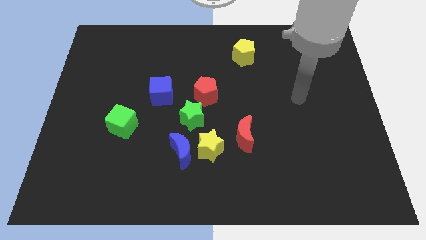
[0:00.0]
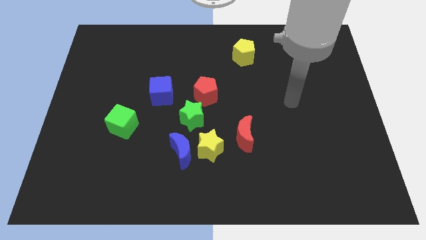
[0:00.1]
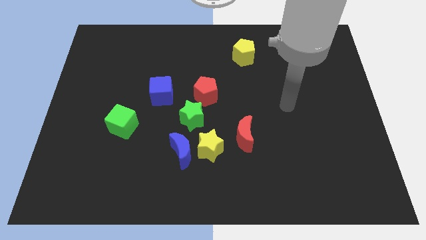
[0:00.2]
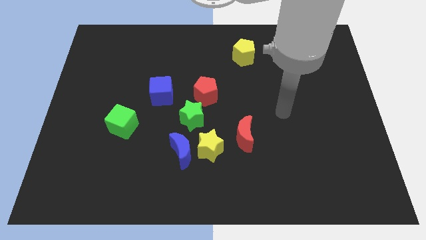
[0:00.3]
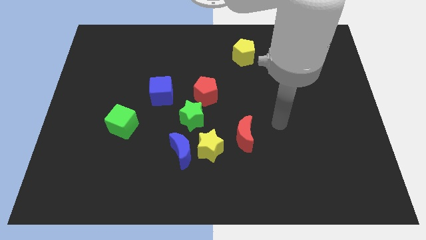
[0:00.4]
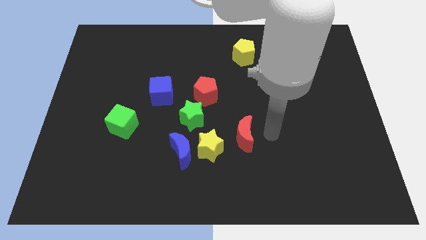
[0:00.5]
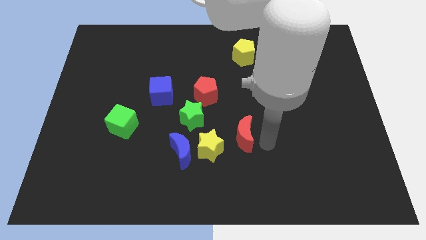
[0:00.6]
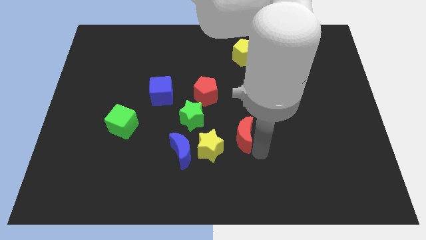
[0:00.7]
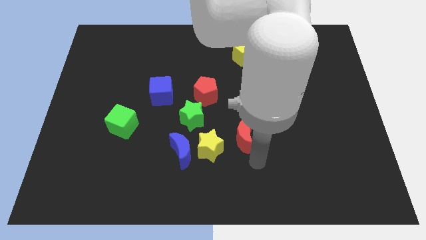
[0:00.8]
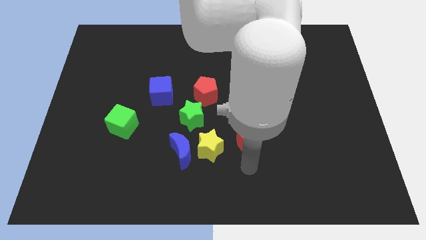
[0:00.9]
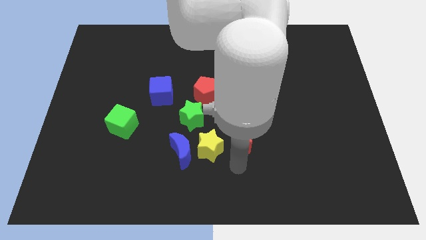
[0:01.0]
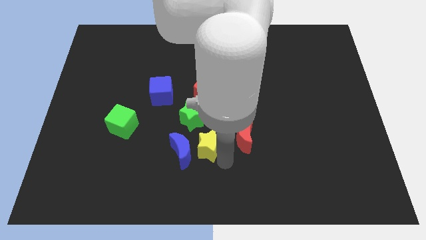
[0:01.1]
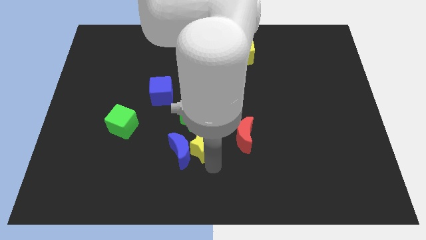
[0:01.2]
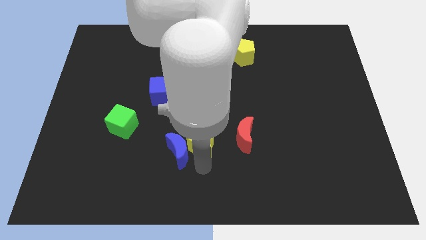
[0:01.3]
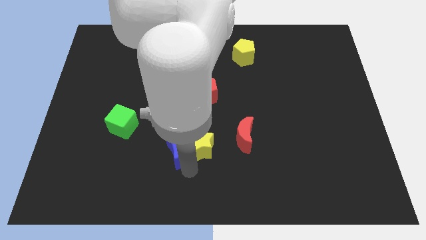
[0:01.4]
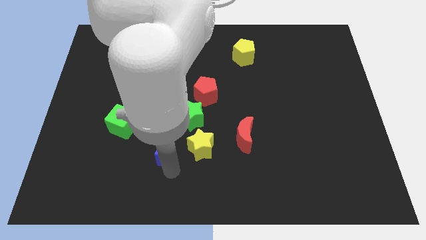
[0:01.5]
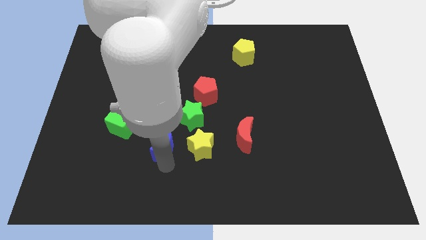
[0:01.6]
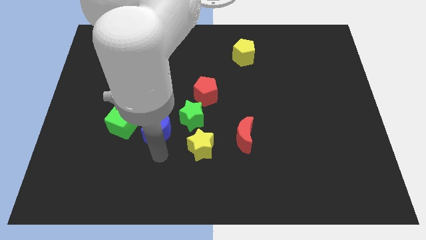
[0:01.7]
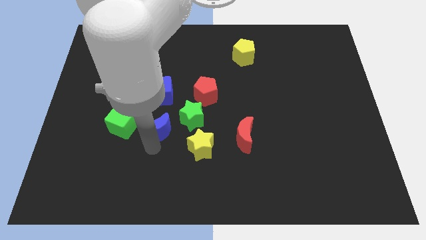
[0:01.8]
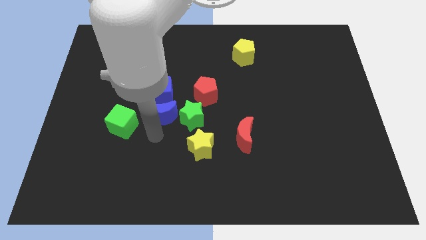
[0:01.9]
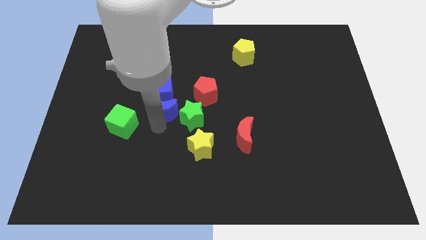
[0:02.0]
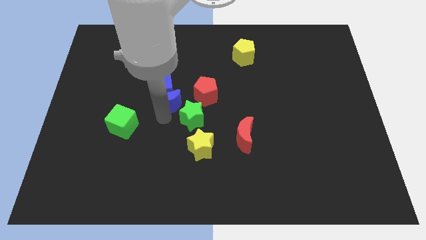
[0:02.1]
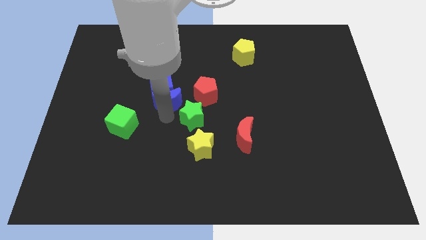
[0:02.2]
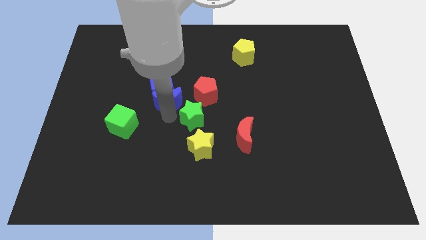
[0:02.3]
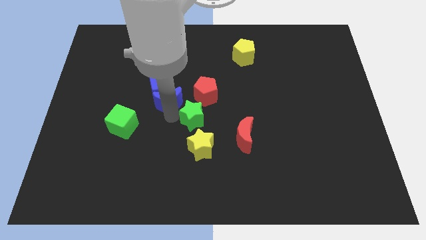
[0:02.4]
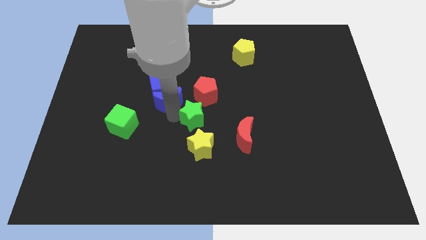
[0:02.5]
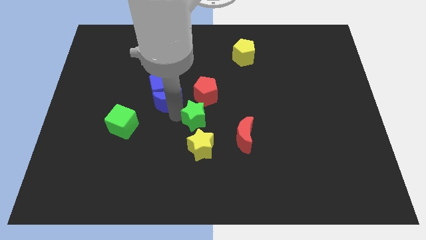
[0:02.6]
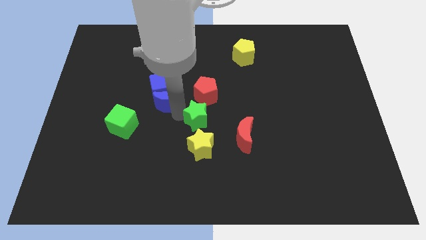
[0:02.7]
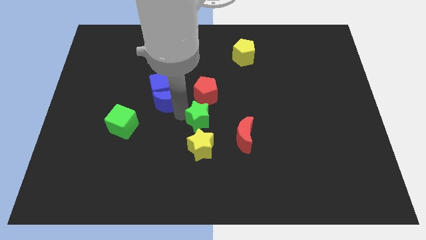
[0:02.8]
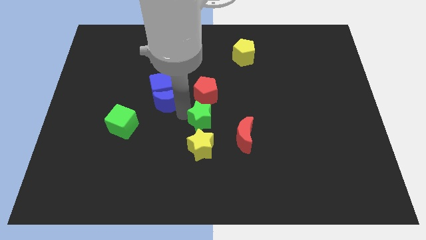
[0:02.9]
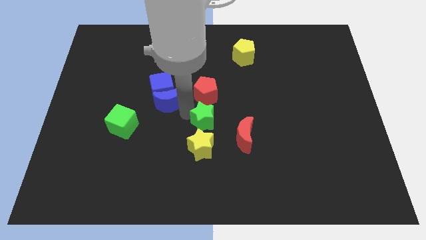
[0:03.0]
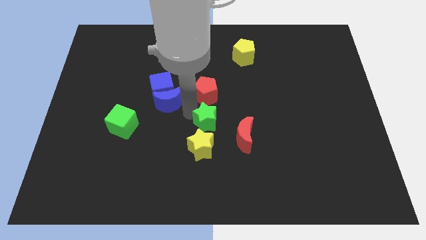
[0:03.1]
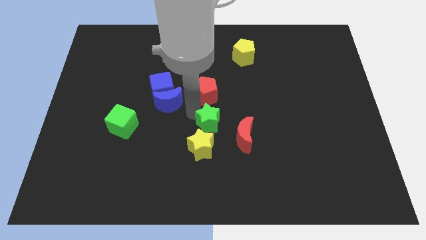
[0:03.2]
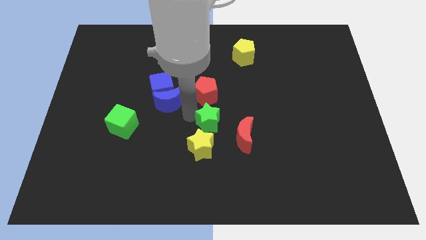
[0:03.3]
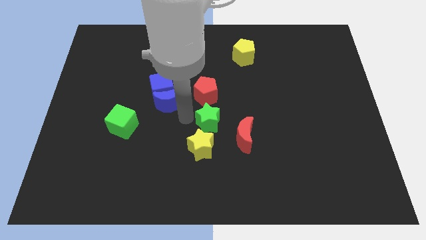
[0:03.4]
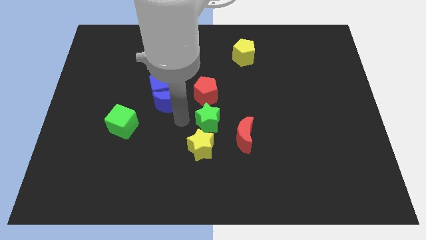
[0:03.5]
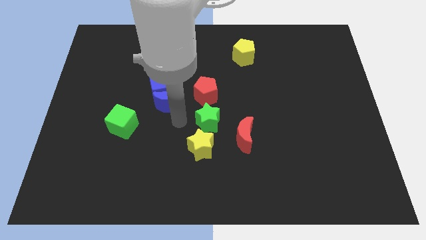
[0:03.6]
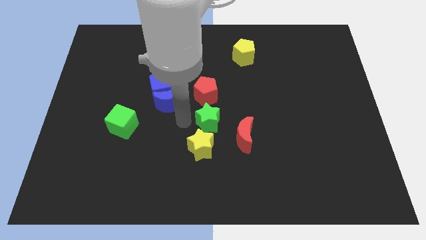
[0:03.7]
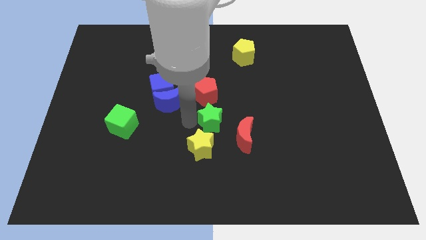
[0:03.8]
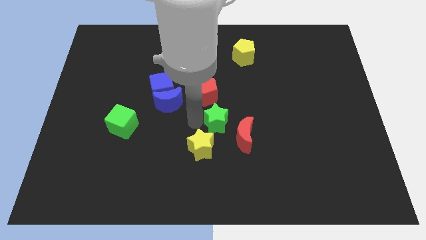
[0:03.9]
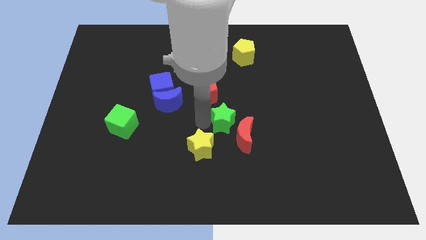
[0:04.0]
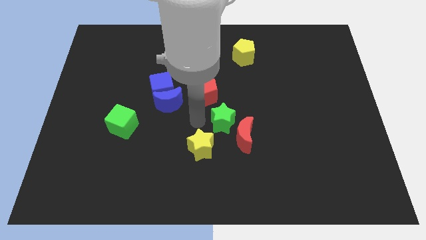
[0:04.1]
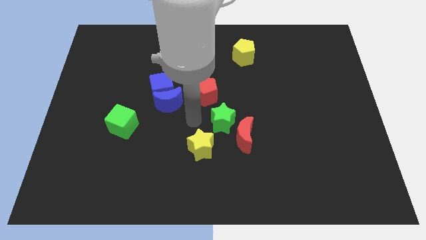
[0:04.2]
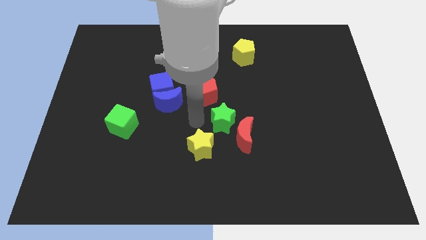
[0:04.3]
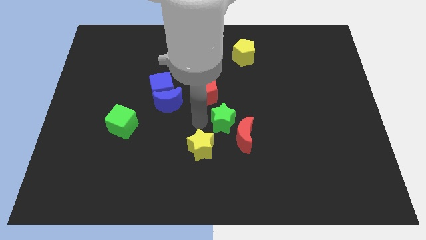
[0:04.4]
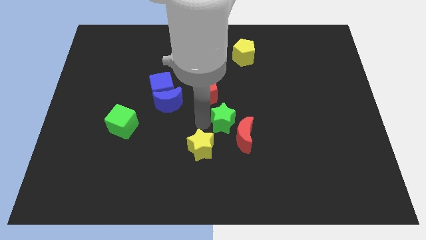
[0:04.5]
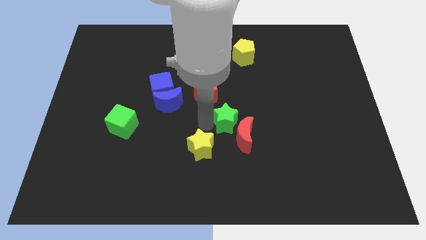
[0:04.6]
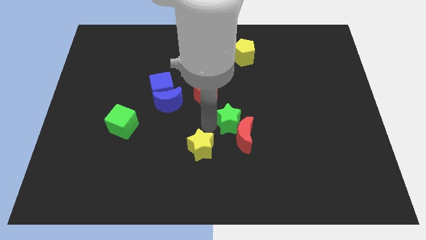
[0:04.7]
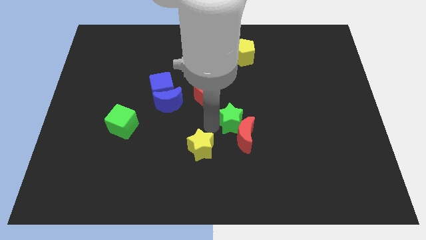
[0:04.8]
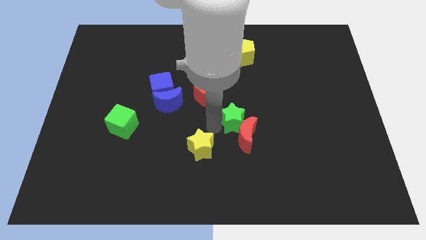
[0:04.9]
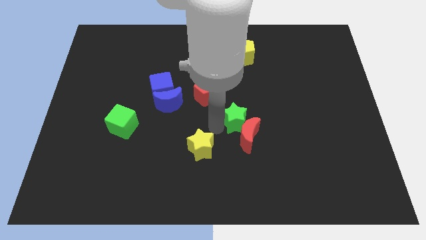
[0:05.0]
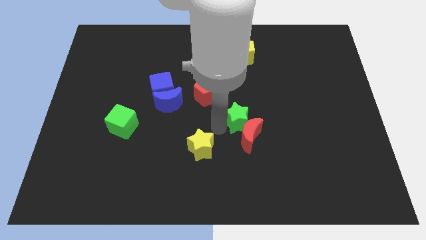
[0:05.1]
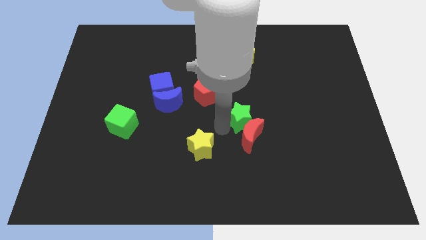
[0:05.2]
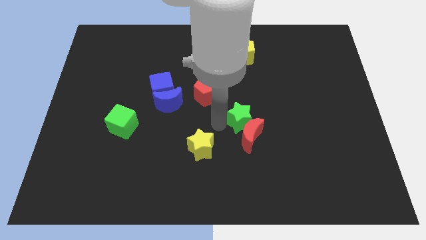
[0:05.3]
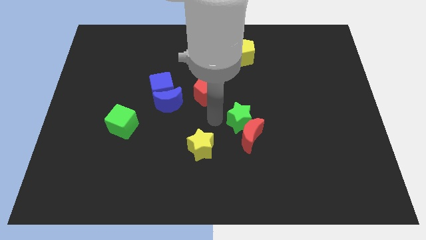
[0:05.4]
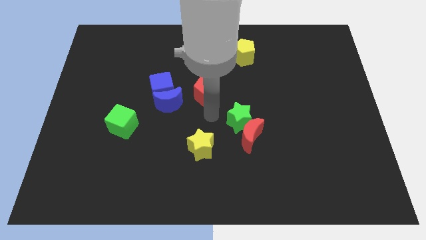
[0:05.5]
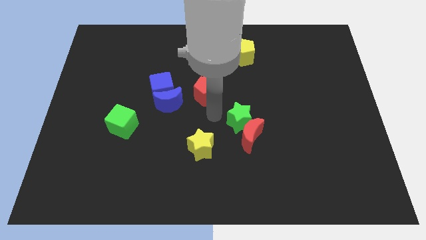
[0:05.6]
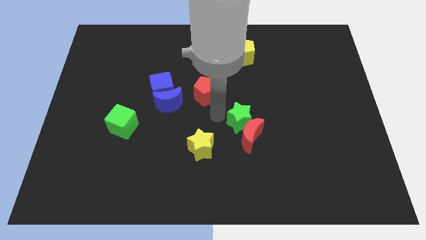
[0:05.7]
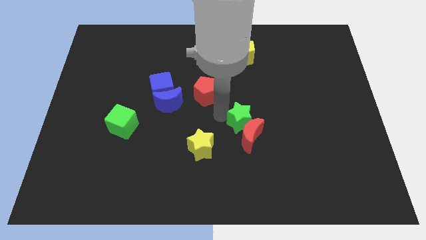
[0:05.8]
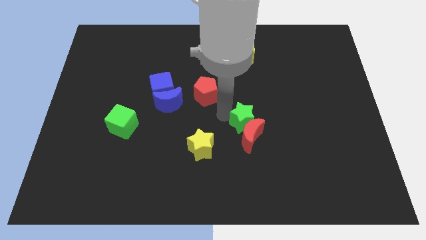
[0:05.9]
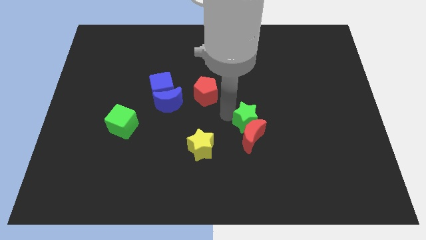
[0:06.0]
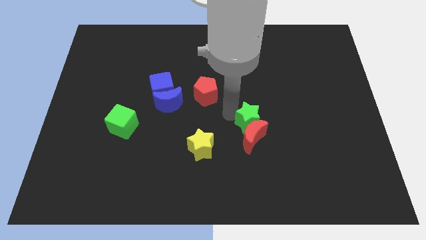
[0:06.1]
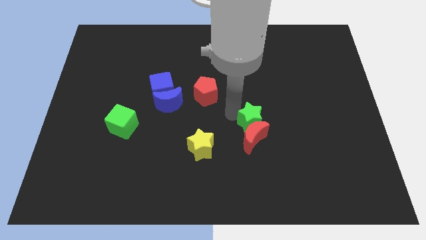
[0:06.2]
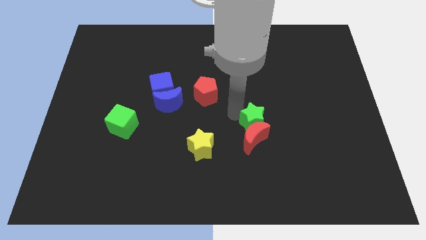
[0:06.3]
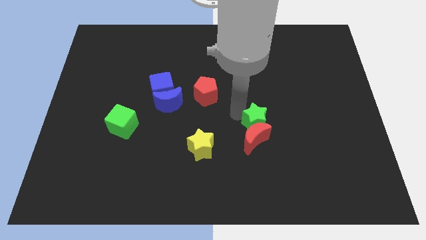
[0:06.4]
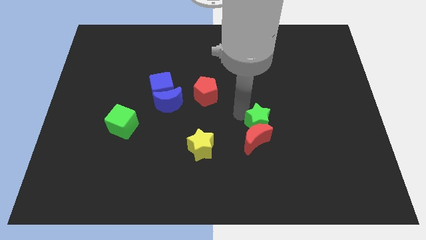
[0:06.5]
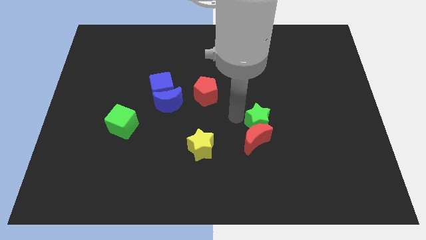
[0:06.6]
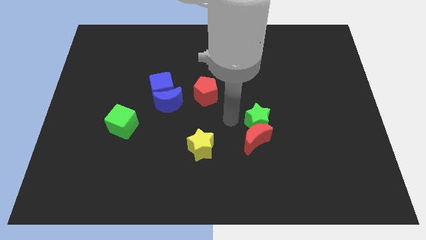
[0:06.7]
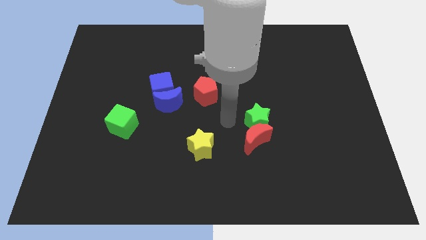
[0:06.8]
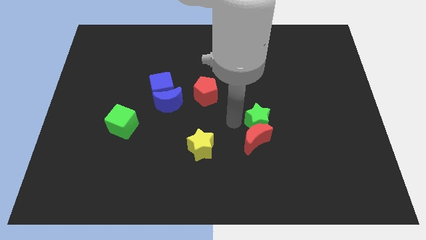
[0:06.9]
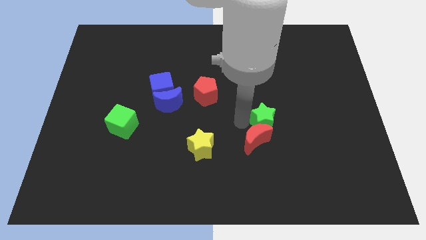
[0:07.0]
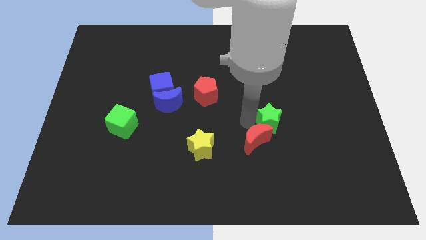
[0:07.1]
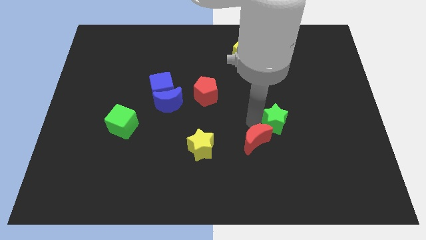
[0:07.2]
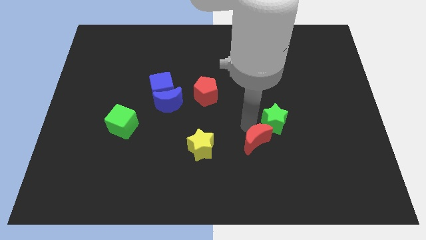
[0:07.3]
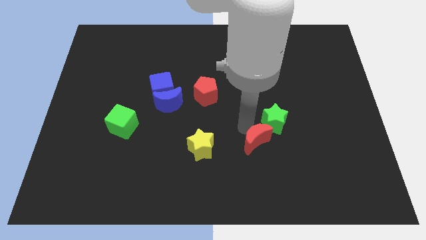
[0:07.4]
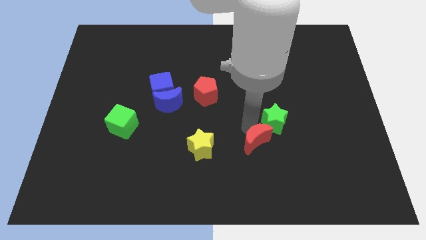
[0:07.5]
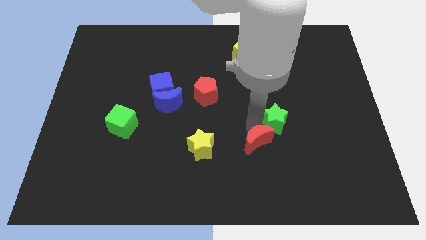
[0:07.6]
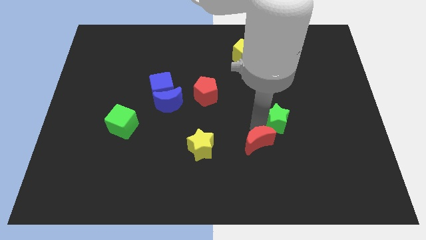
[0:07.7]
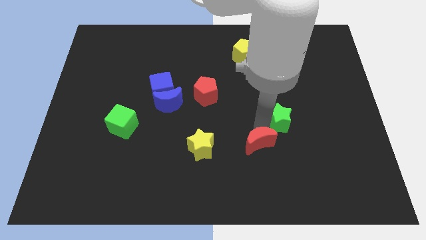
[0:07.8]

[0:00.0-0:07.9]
move the green star right

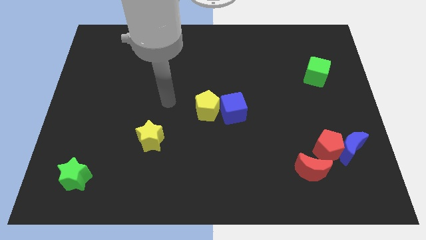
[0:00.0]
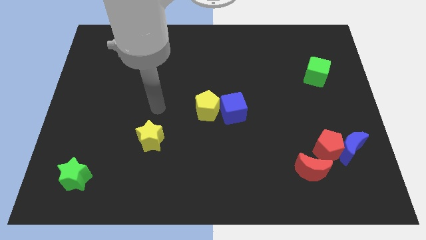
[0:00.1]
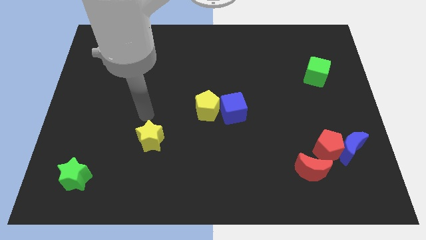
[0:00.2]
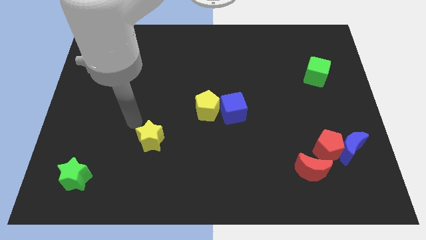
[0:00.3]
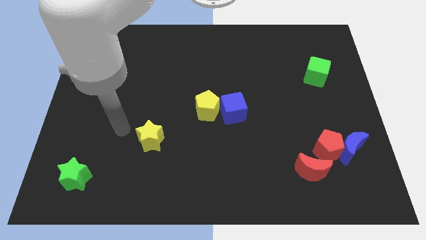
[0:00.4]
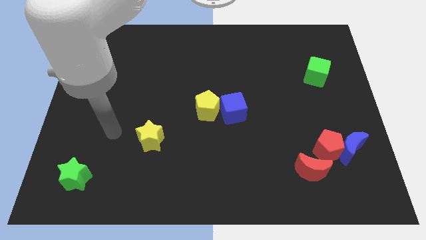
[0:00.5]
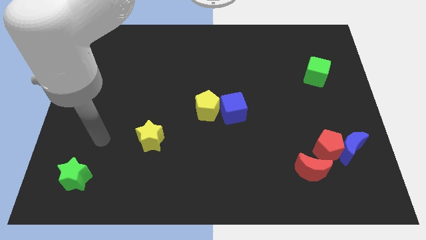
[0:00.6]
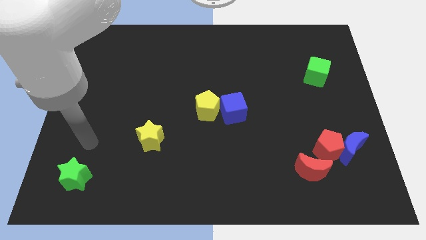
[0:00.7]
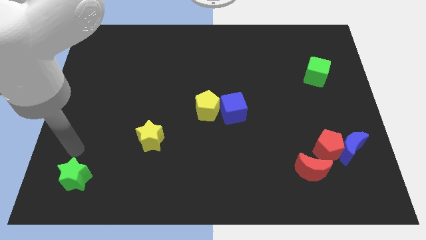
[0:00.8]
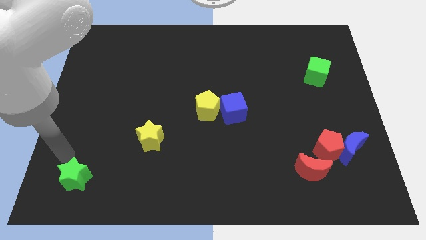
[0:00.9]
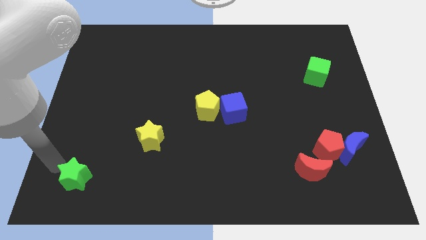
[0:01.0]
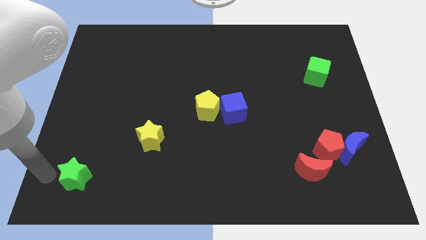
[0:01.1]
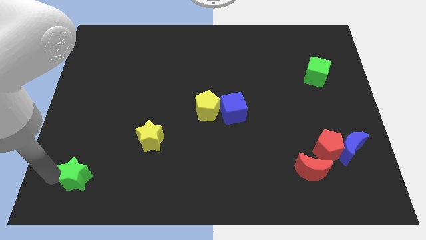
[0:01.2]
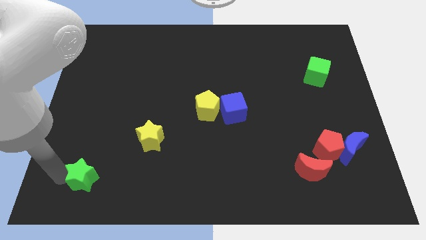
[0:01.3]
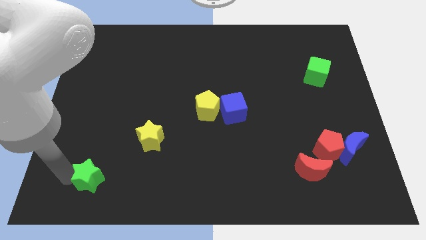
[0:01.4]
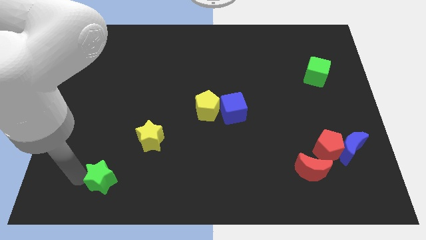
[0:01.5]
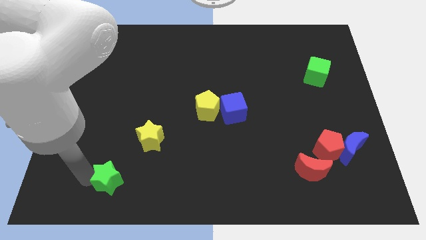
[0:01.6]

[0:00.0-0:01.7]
move the green star a little to the right
